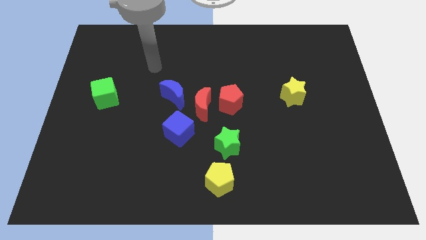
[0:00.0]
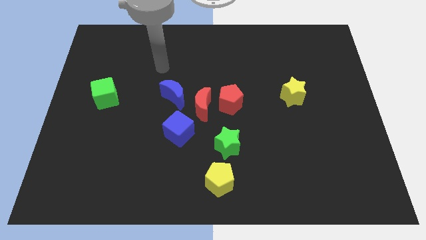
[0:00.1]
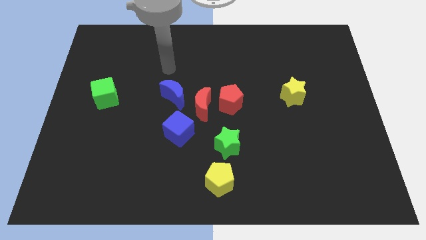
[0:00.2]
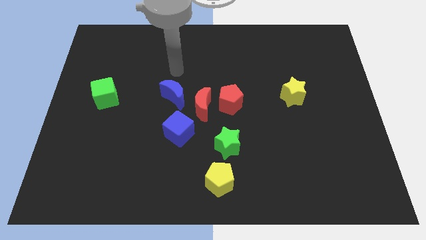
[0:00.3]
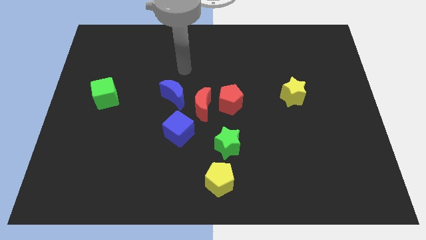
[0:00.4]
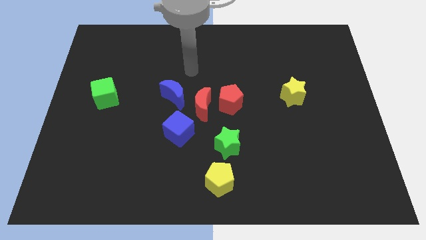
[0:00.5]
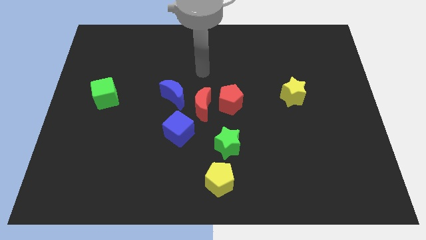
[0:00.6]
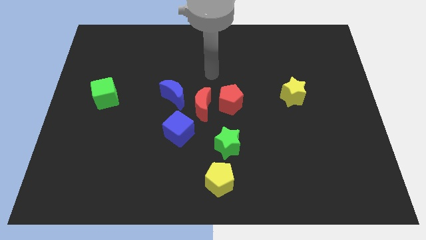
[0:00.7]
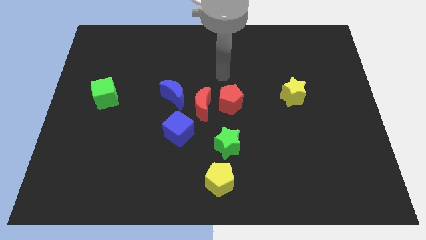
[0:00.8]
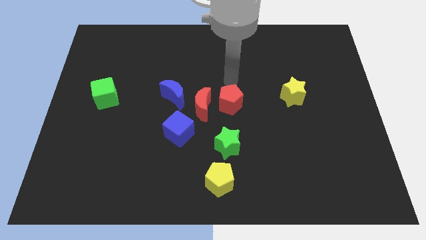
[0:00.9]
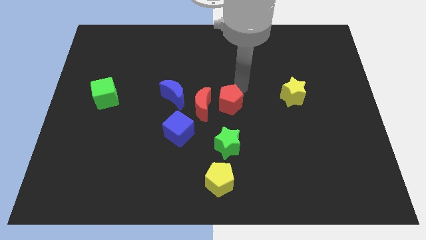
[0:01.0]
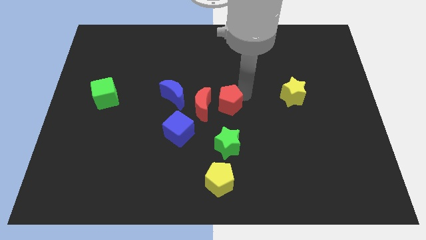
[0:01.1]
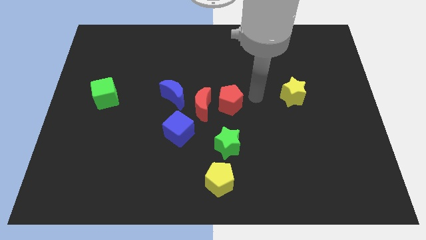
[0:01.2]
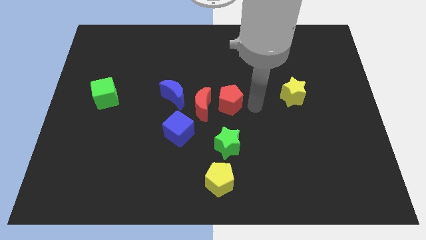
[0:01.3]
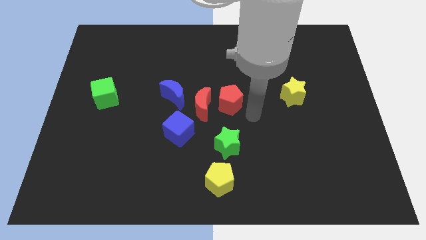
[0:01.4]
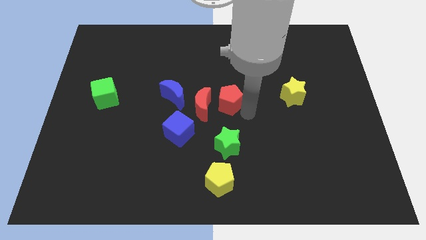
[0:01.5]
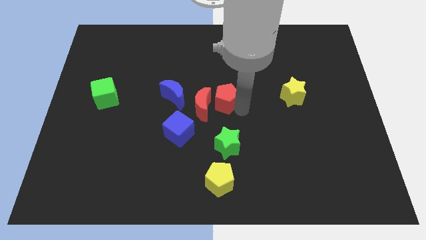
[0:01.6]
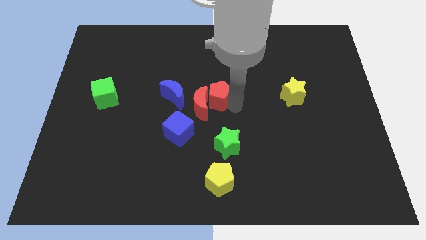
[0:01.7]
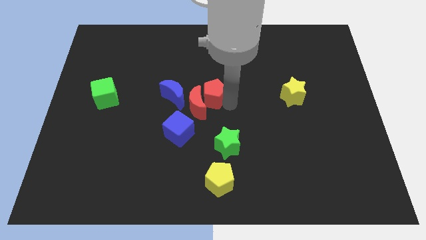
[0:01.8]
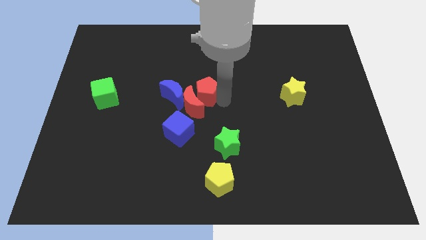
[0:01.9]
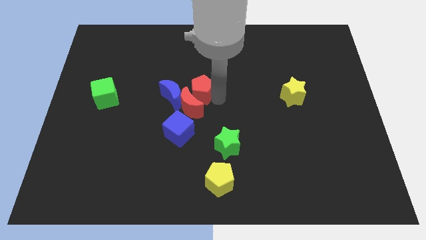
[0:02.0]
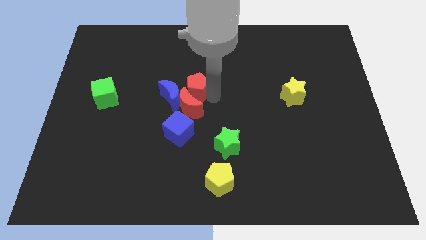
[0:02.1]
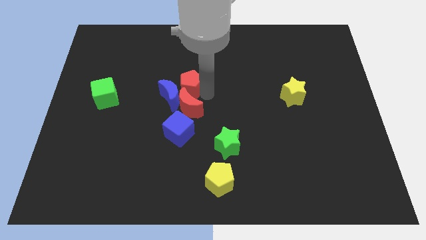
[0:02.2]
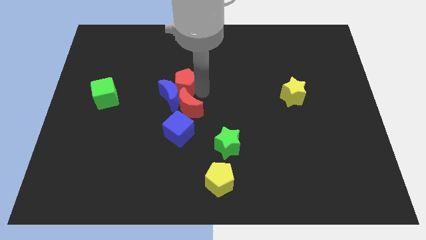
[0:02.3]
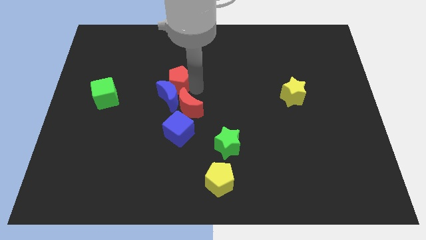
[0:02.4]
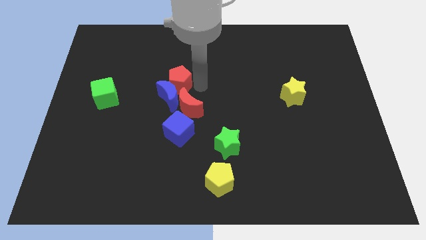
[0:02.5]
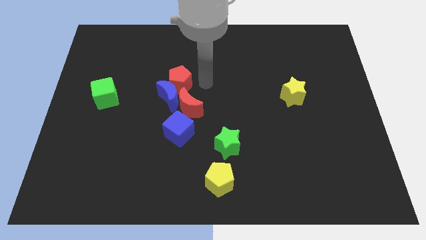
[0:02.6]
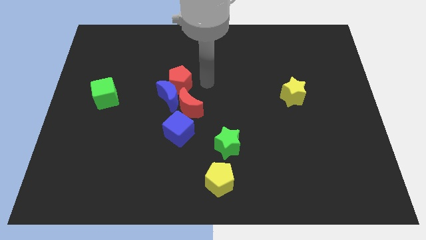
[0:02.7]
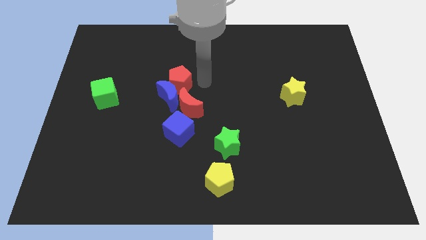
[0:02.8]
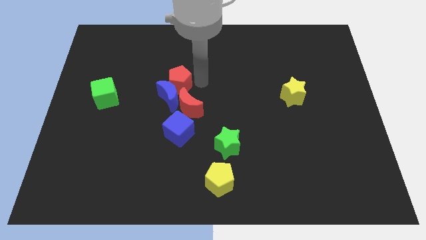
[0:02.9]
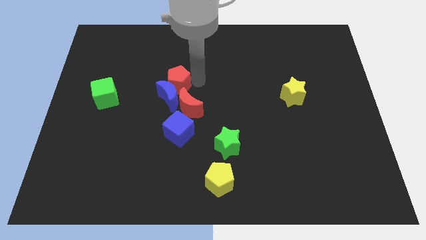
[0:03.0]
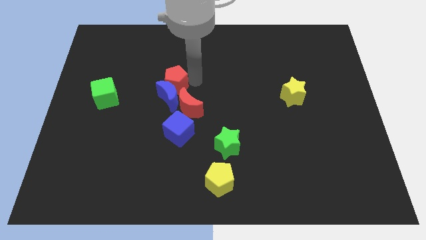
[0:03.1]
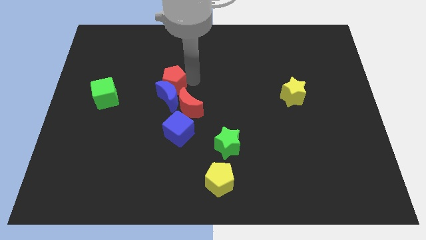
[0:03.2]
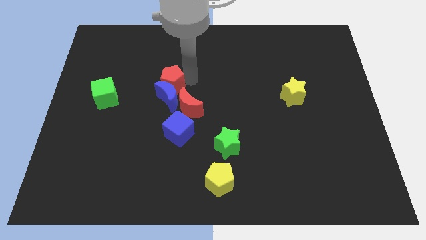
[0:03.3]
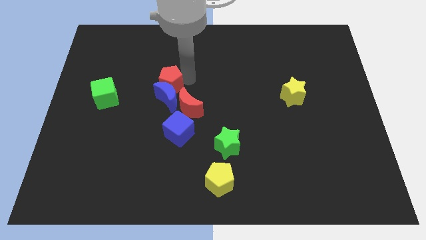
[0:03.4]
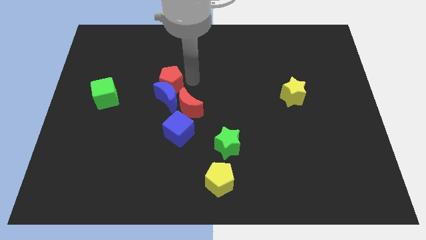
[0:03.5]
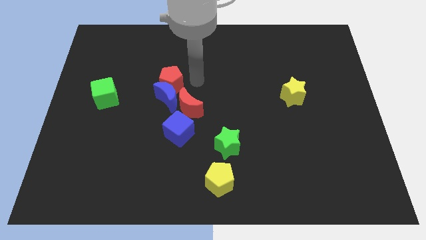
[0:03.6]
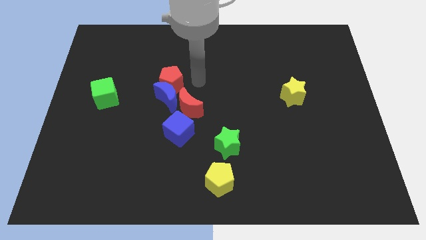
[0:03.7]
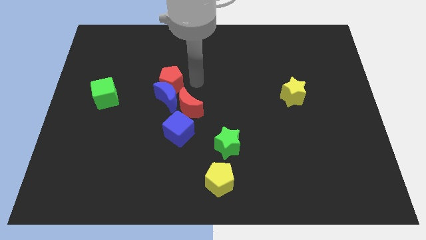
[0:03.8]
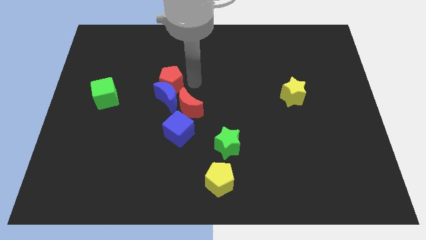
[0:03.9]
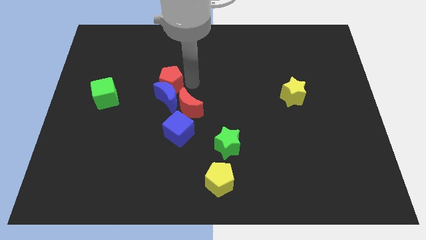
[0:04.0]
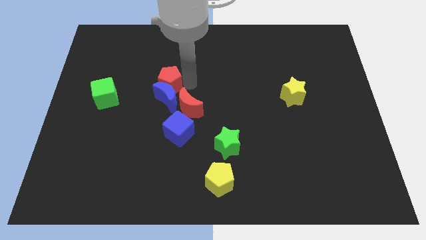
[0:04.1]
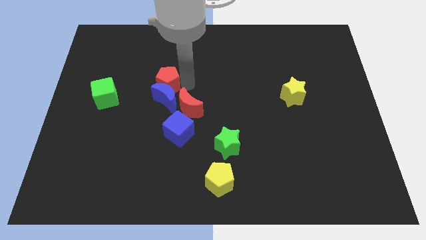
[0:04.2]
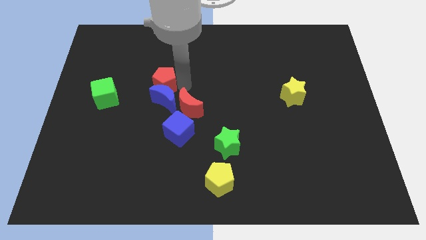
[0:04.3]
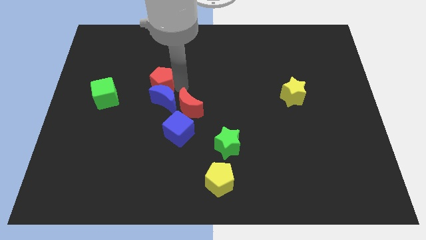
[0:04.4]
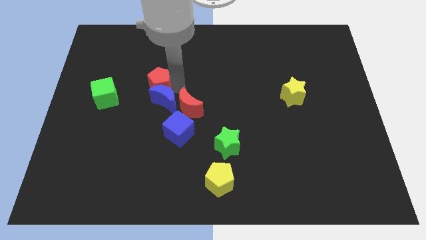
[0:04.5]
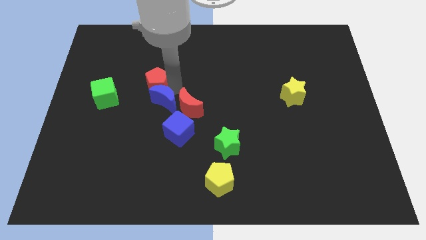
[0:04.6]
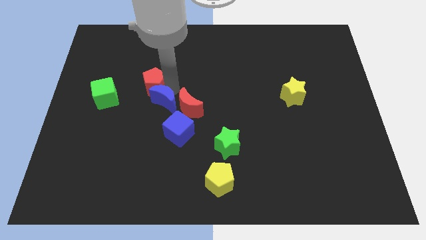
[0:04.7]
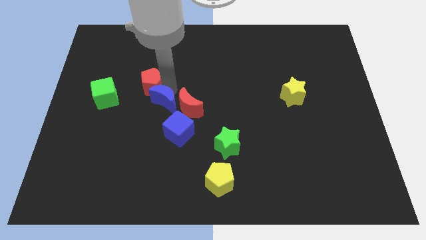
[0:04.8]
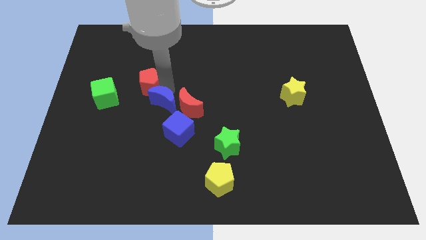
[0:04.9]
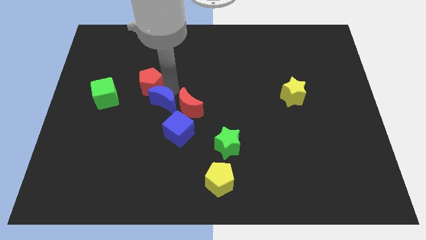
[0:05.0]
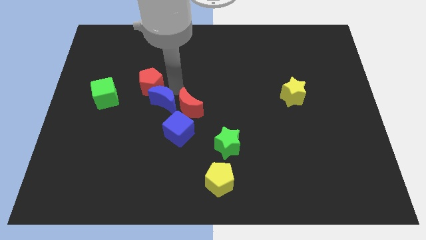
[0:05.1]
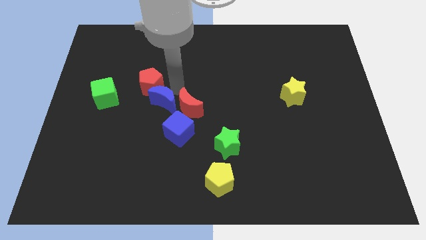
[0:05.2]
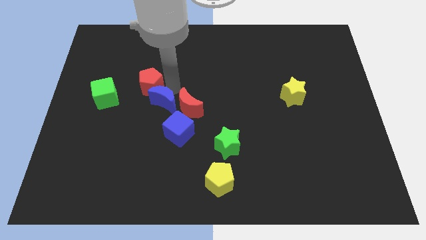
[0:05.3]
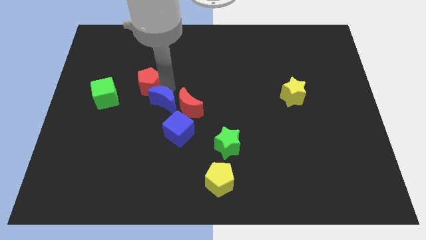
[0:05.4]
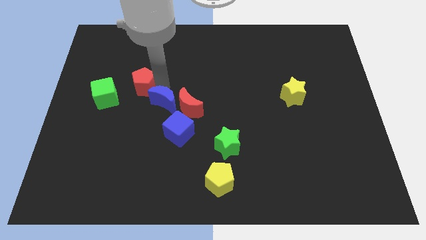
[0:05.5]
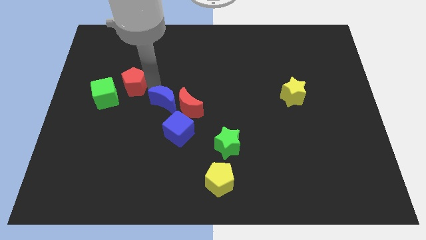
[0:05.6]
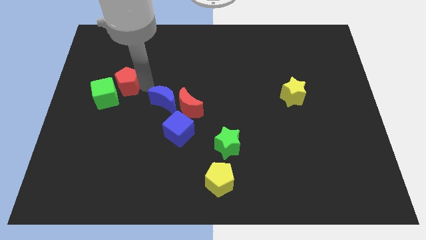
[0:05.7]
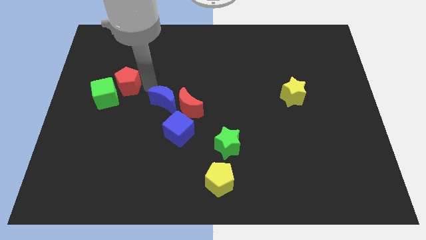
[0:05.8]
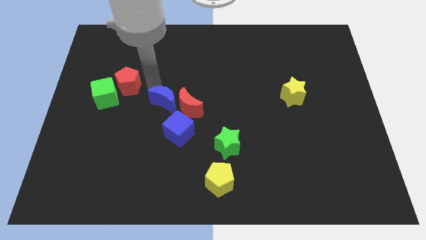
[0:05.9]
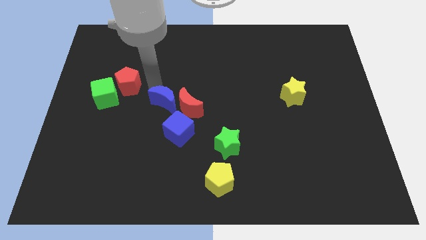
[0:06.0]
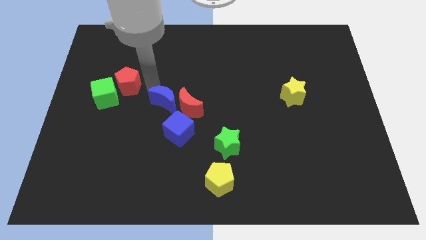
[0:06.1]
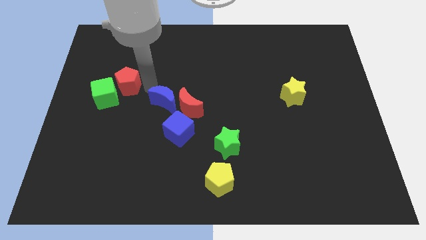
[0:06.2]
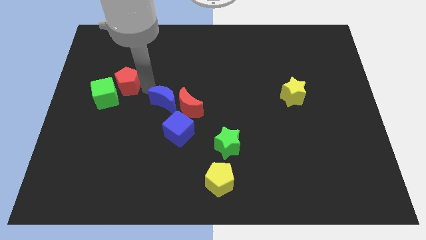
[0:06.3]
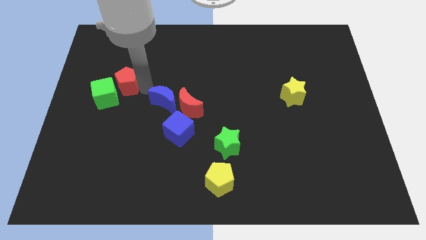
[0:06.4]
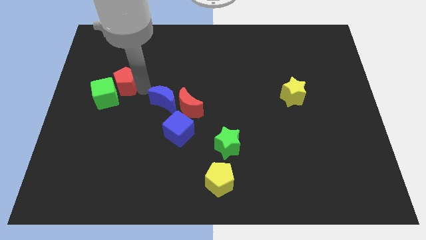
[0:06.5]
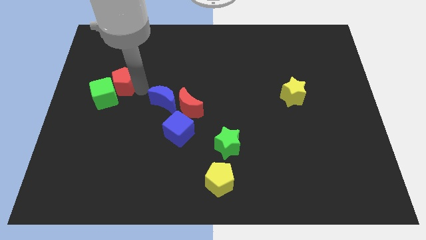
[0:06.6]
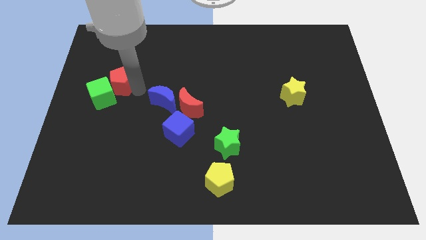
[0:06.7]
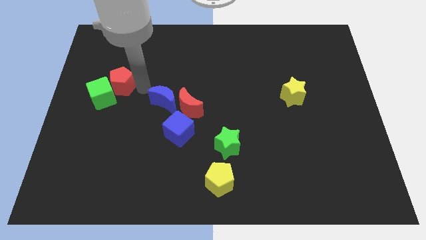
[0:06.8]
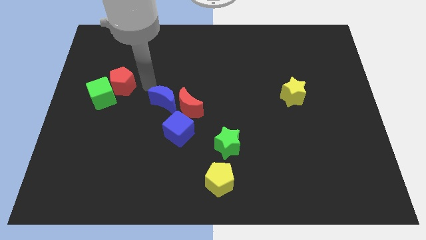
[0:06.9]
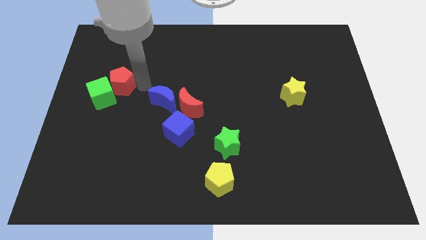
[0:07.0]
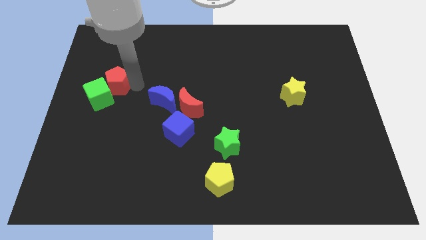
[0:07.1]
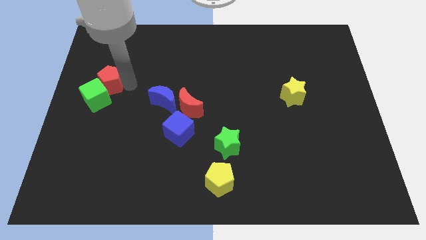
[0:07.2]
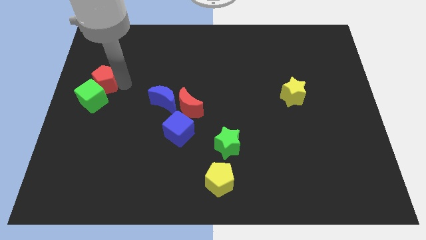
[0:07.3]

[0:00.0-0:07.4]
put the red pentagon to the left side
